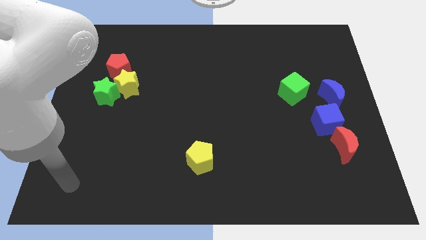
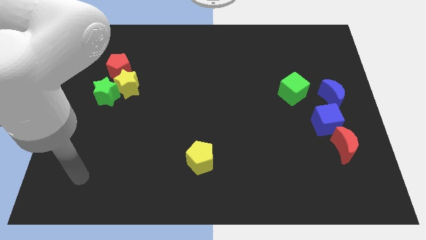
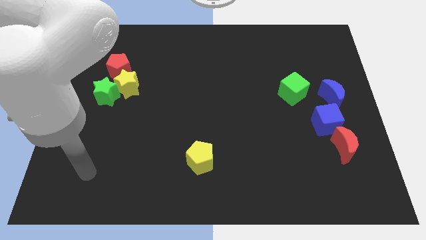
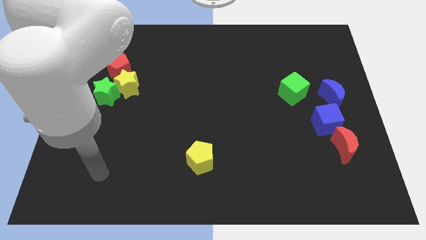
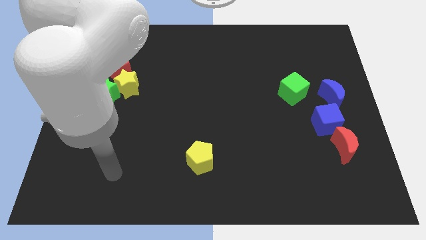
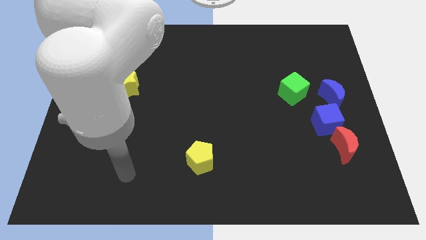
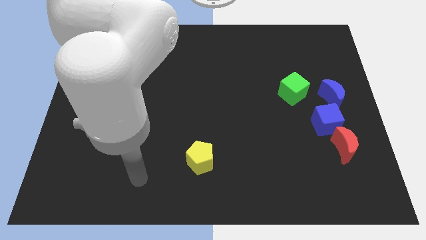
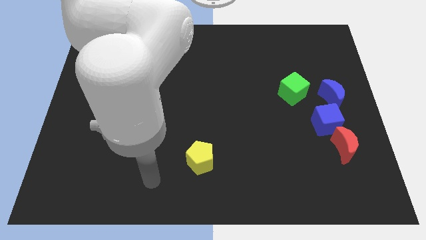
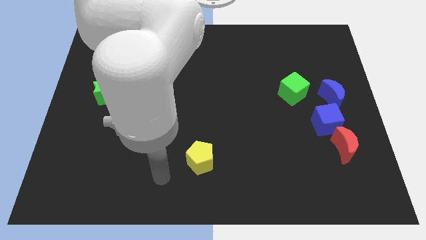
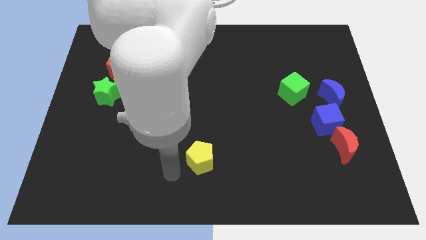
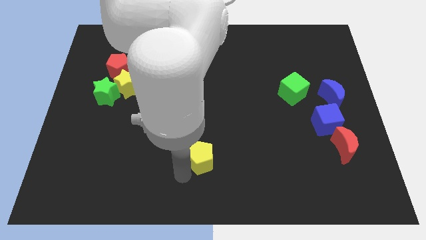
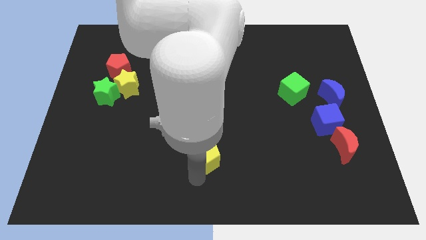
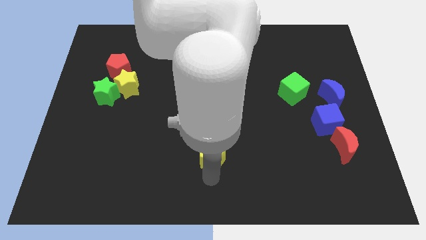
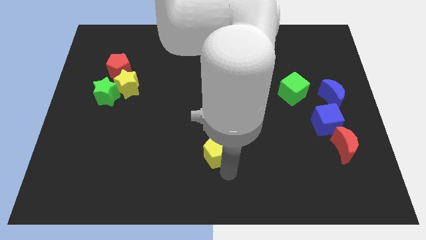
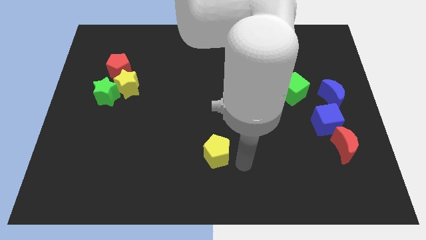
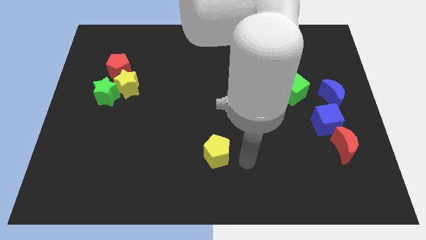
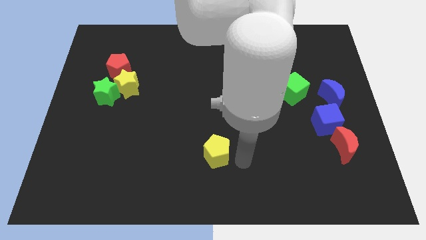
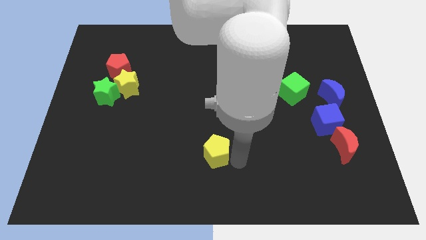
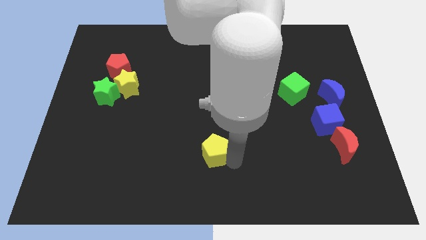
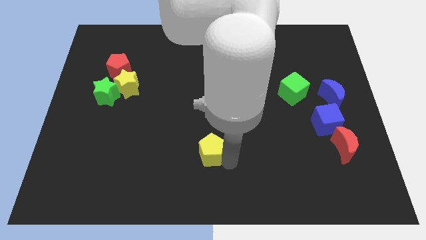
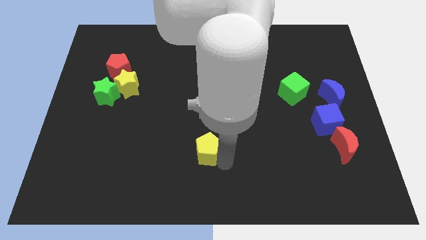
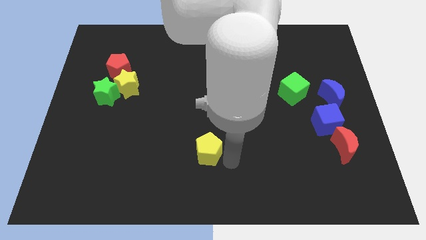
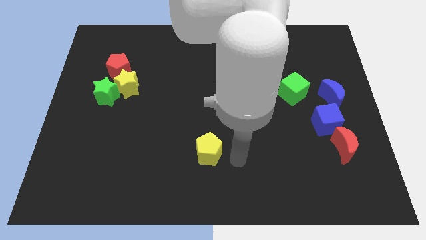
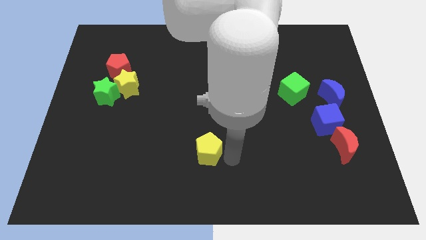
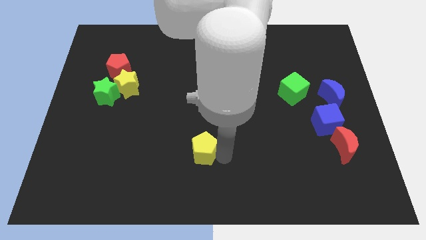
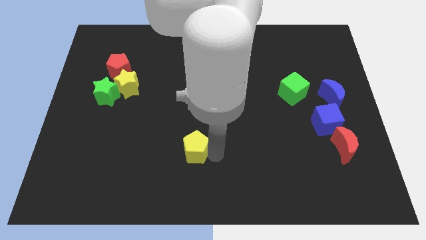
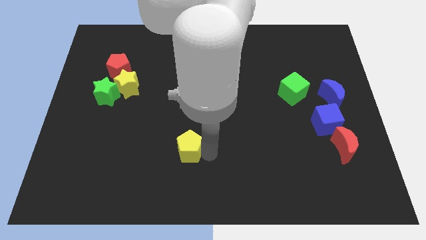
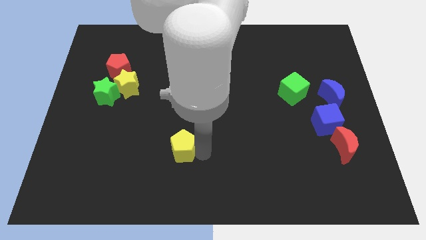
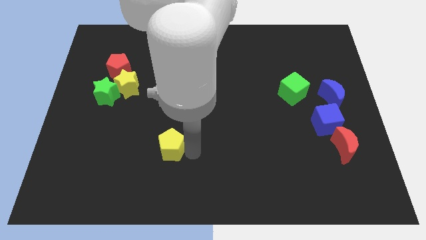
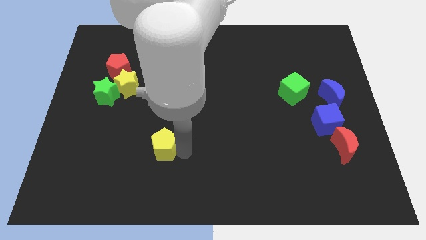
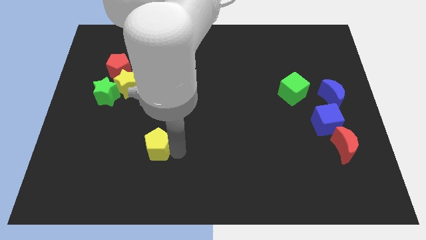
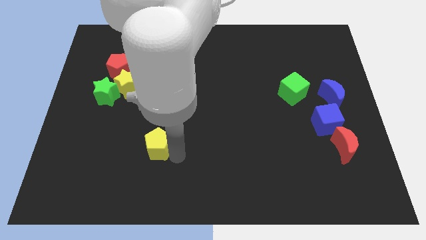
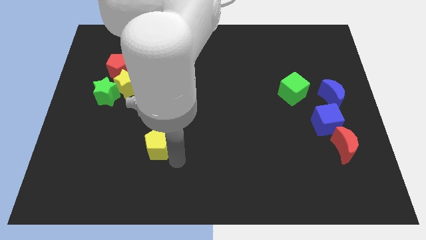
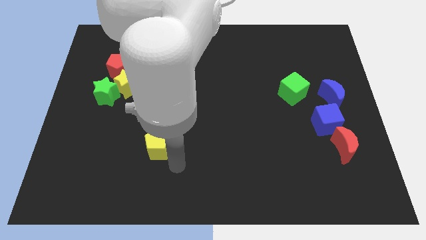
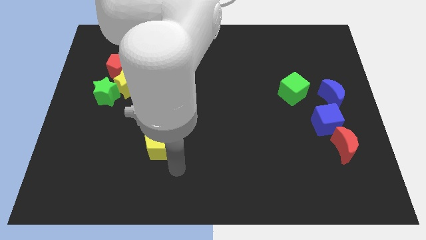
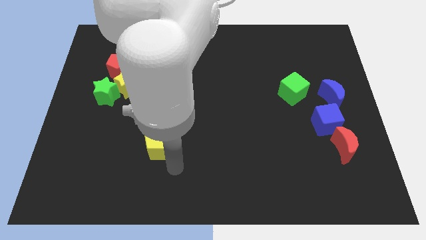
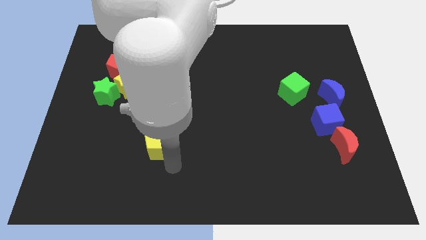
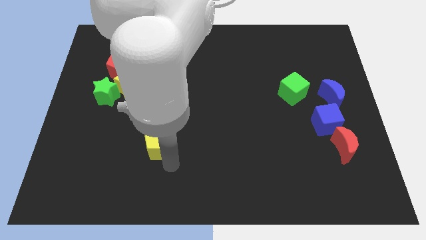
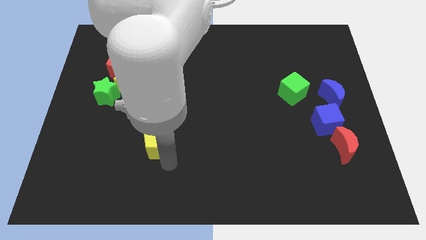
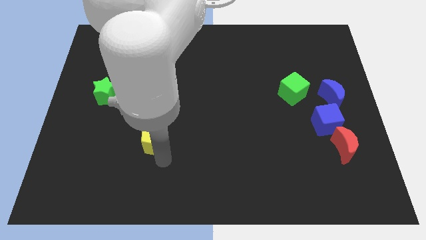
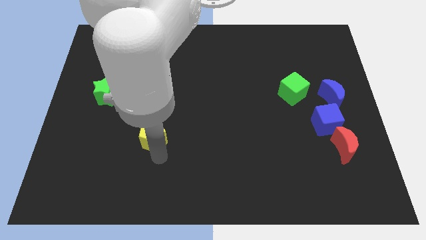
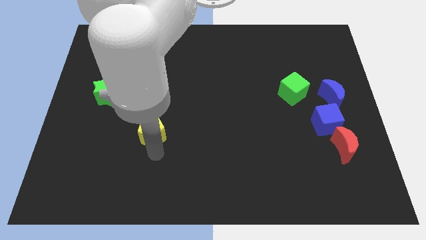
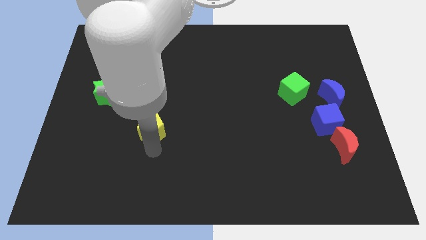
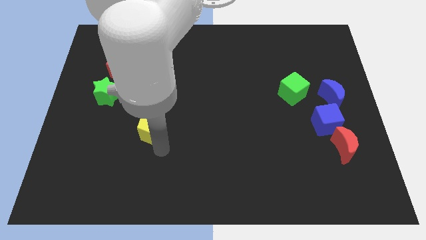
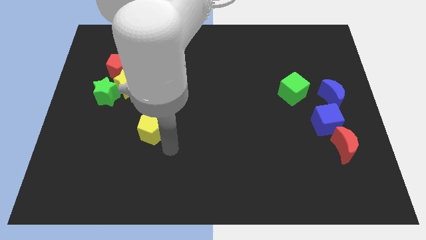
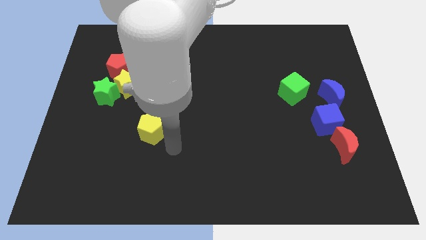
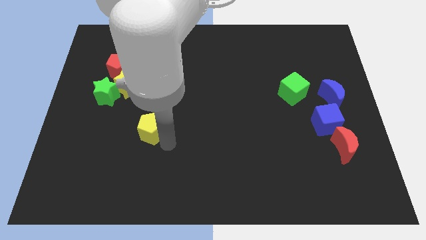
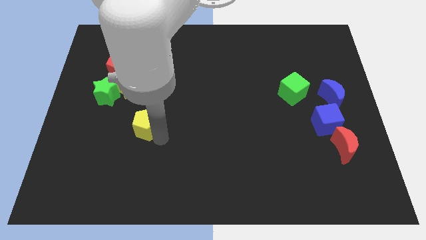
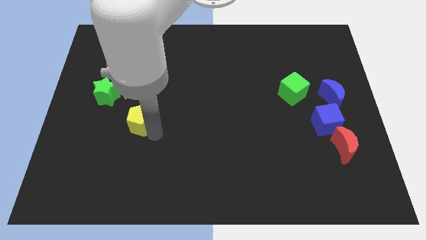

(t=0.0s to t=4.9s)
put the yellow pentagon diagonally down and to the right of the green star

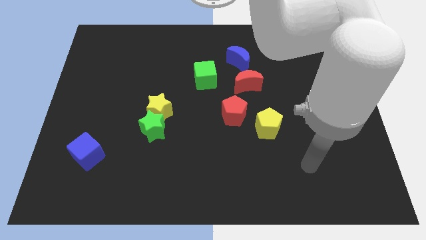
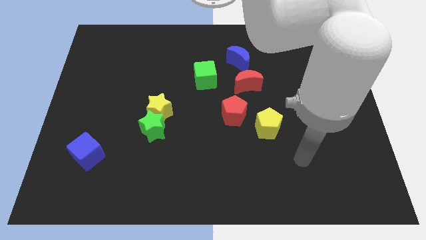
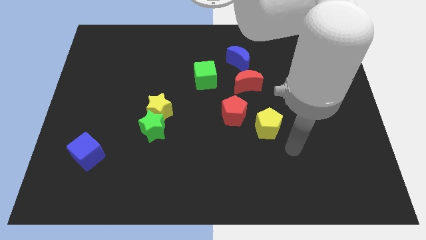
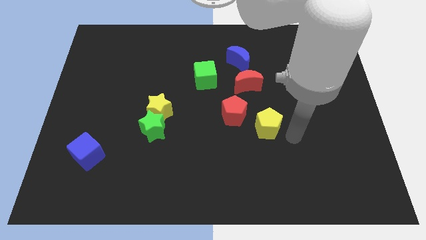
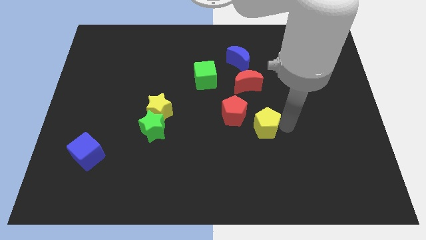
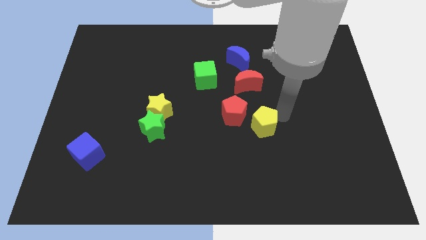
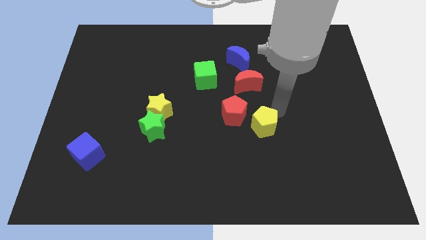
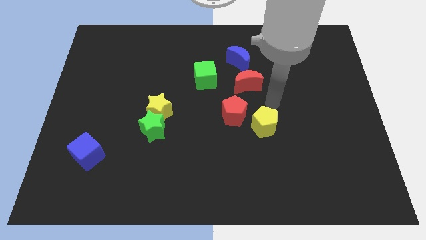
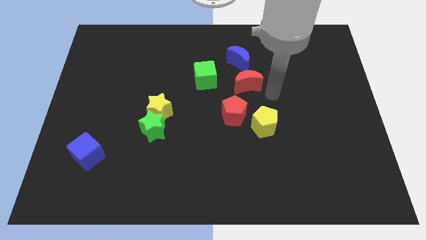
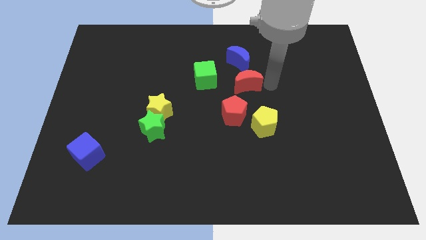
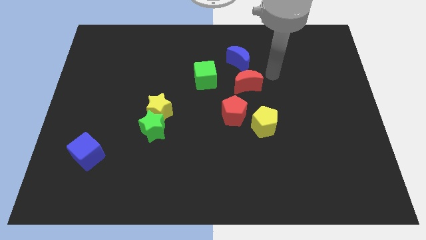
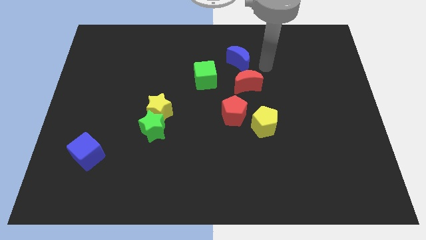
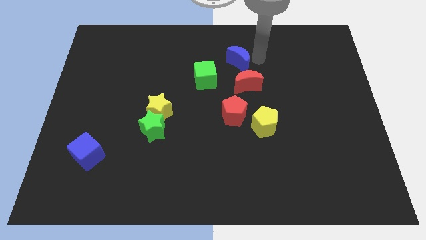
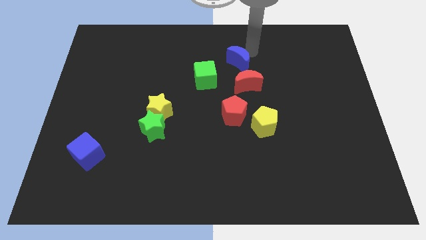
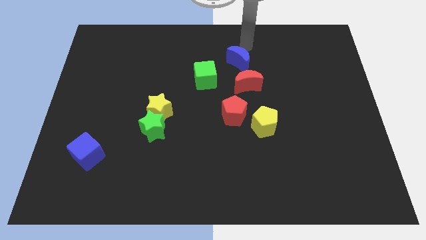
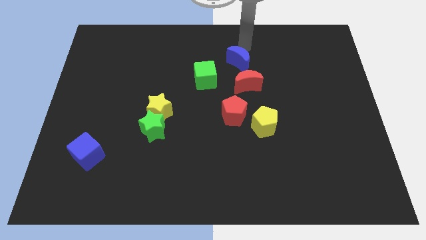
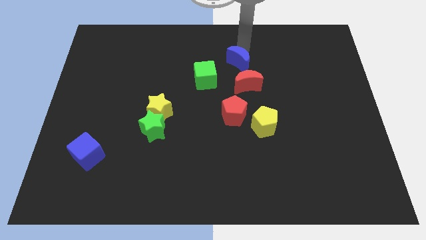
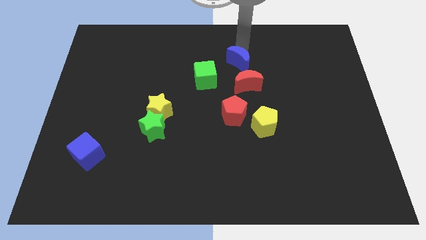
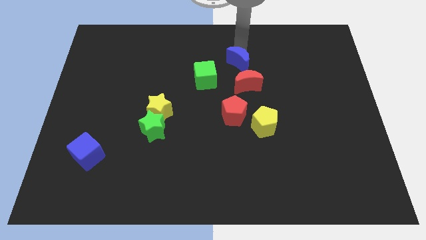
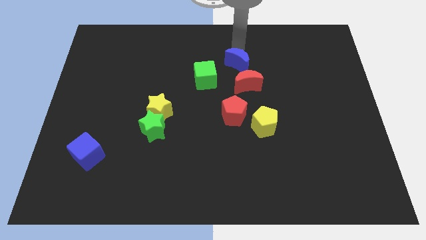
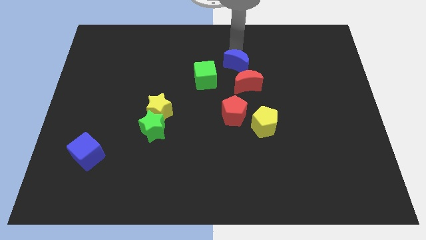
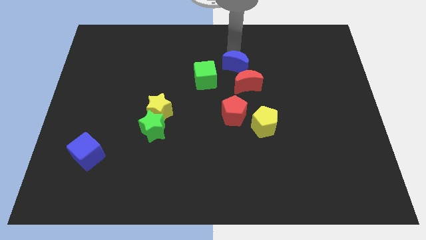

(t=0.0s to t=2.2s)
slide the blue moon to the top of the red pentagon

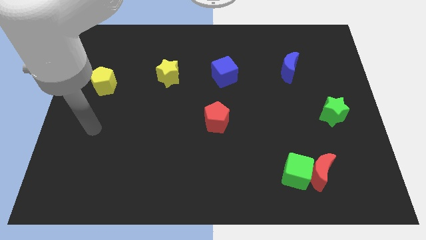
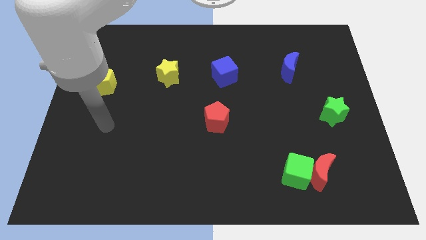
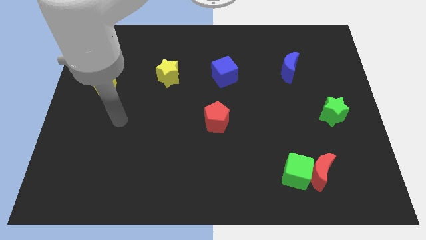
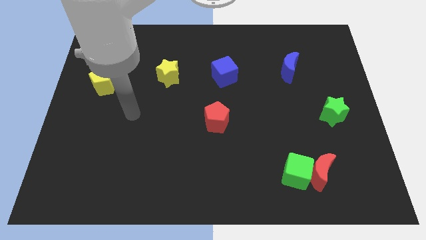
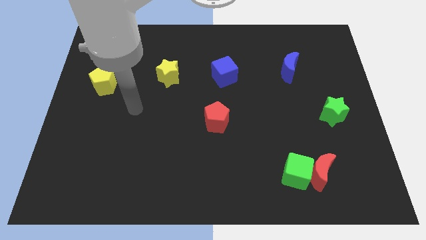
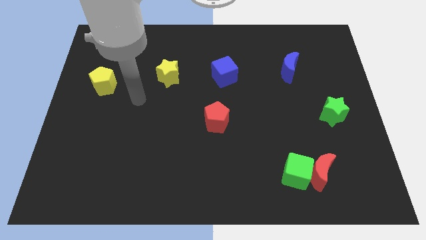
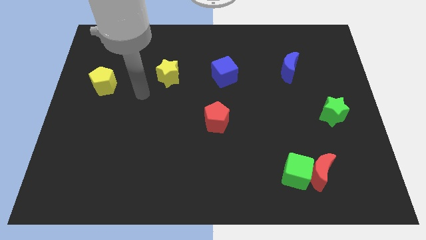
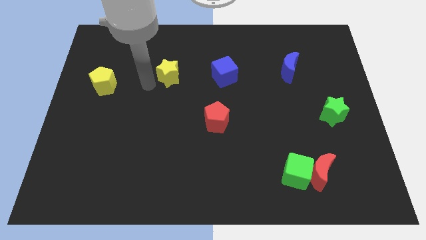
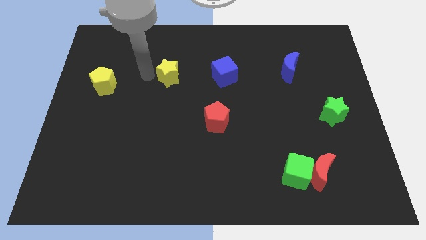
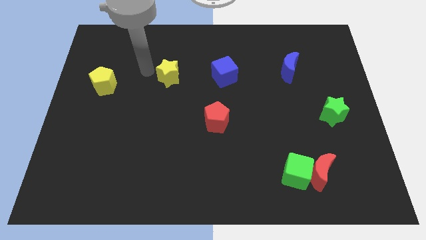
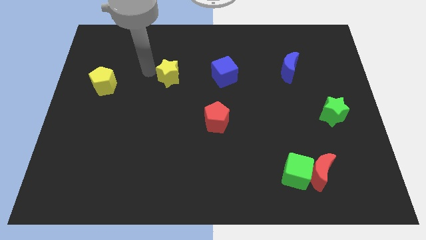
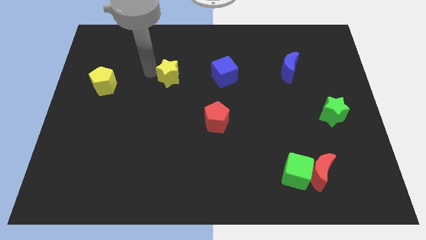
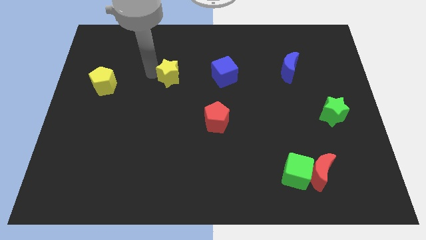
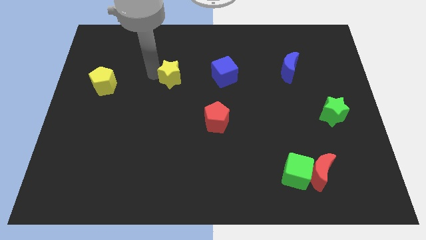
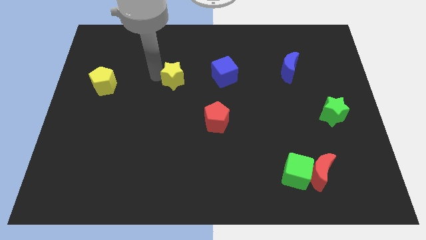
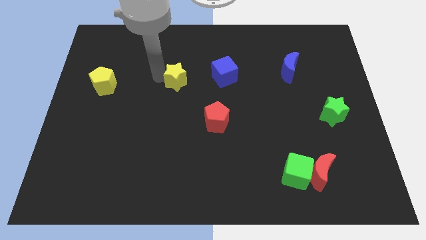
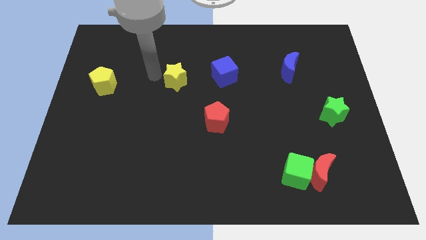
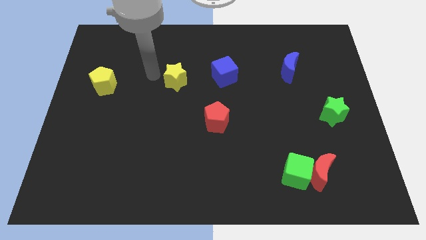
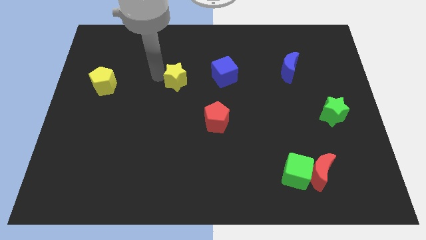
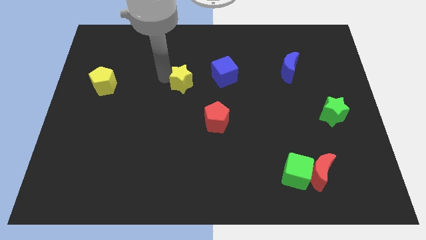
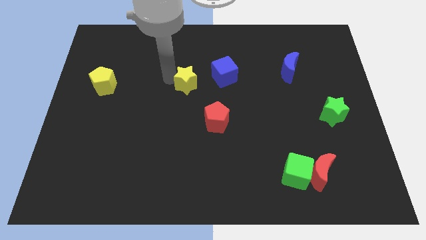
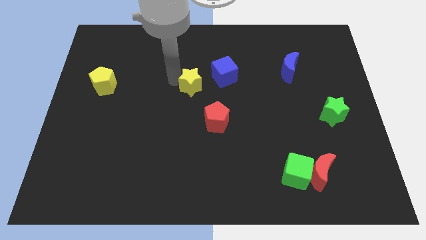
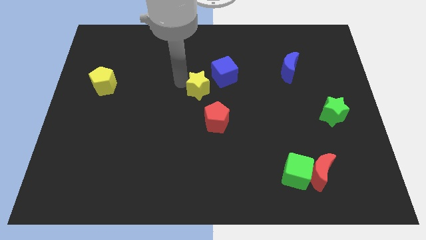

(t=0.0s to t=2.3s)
slide the yellow star to the top of the red pentagon
